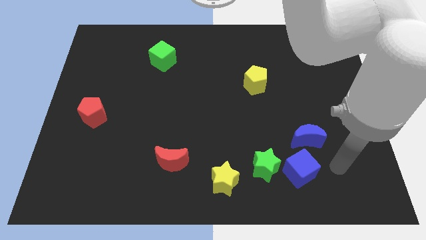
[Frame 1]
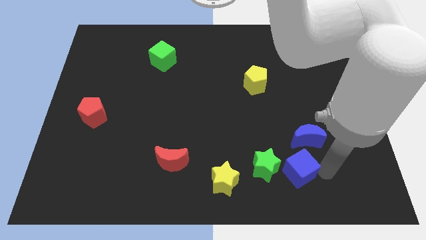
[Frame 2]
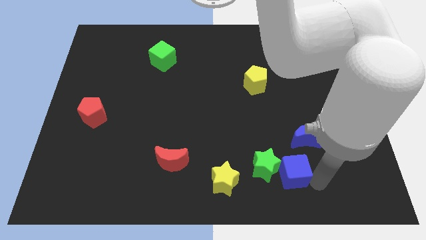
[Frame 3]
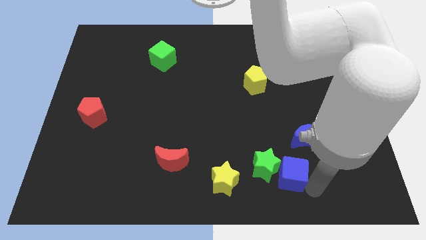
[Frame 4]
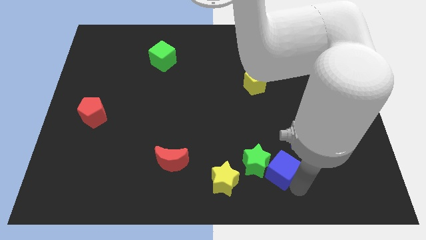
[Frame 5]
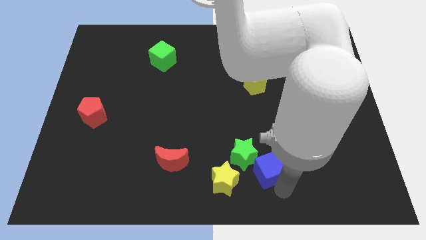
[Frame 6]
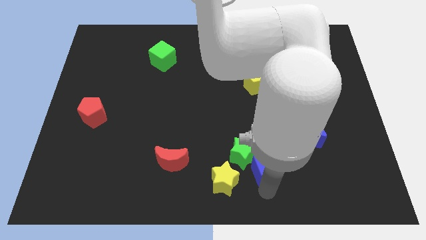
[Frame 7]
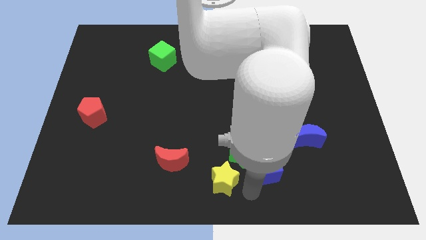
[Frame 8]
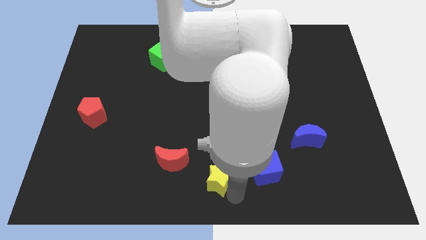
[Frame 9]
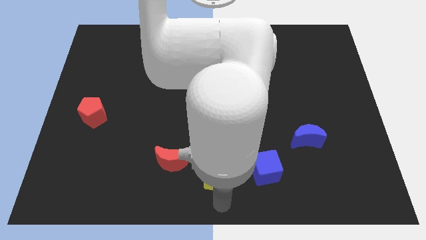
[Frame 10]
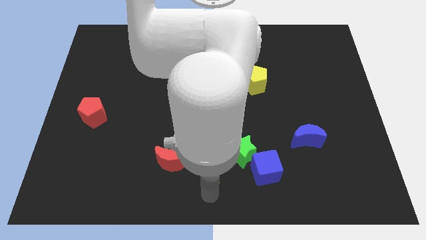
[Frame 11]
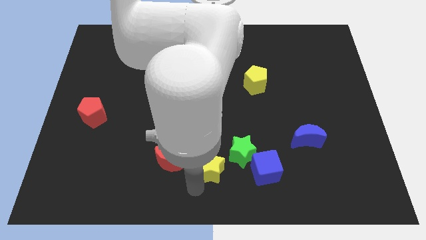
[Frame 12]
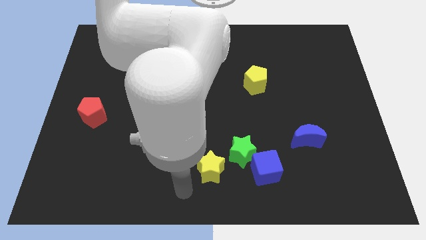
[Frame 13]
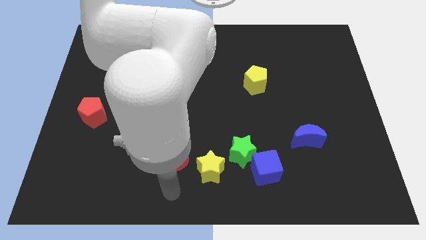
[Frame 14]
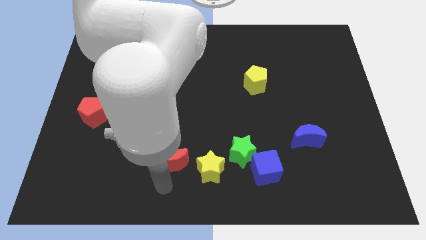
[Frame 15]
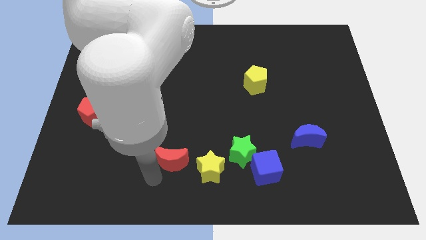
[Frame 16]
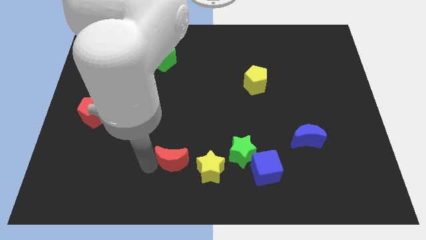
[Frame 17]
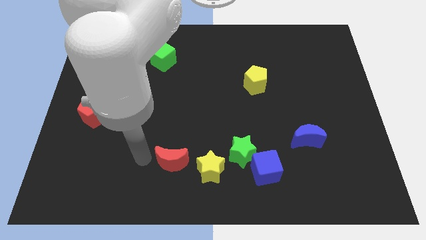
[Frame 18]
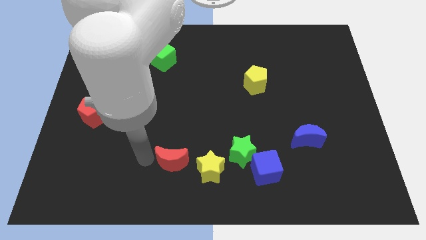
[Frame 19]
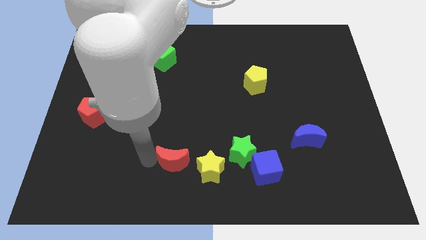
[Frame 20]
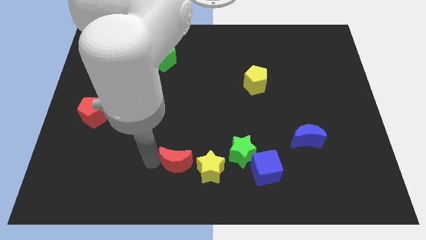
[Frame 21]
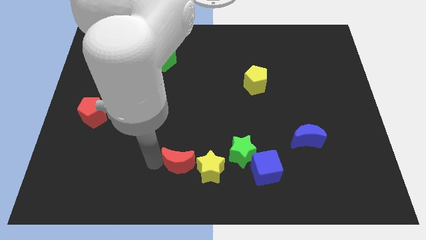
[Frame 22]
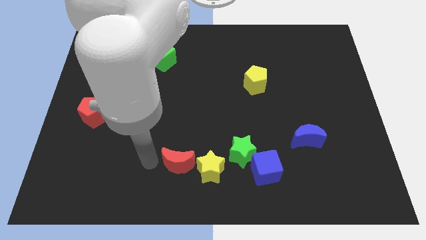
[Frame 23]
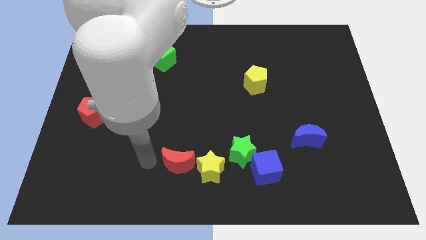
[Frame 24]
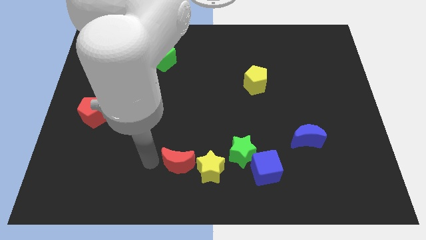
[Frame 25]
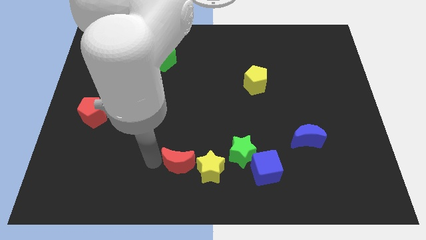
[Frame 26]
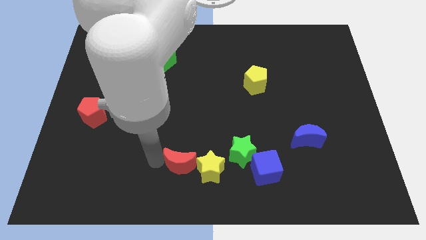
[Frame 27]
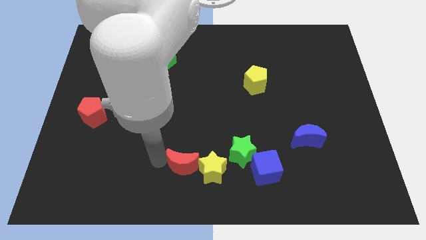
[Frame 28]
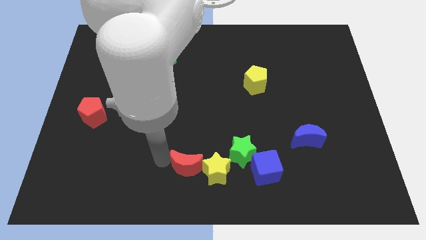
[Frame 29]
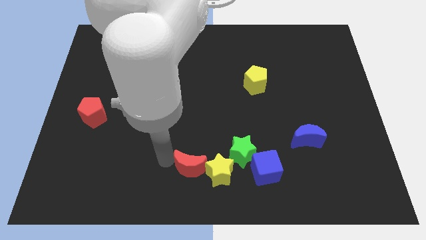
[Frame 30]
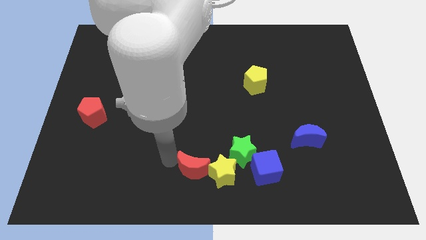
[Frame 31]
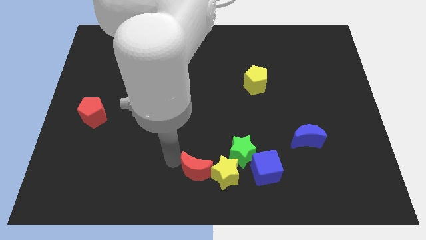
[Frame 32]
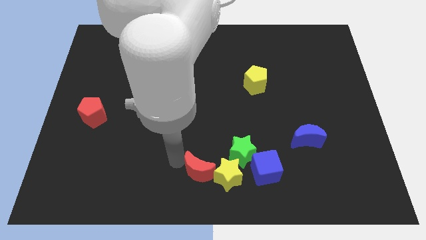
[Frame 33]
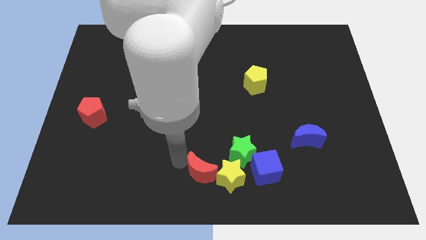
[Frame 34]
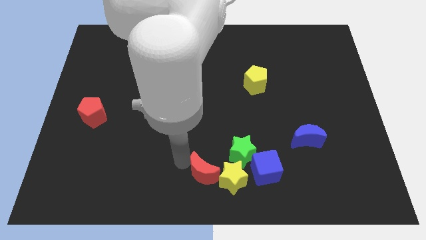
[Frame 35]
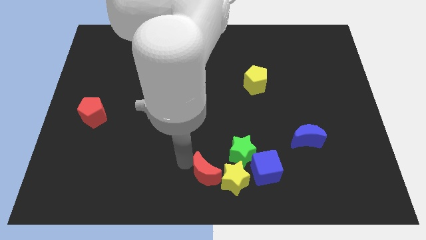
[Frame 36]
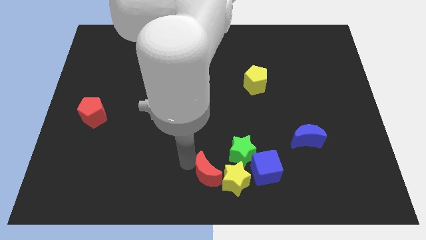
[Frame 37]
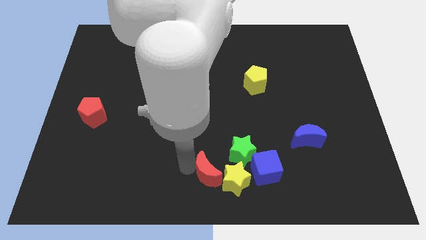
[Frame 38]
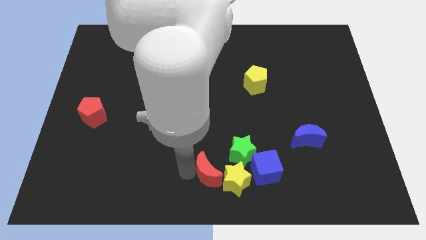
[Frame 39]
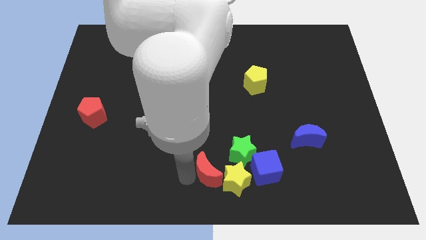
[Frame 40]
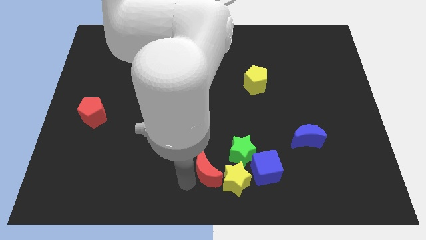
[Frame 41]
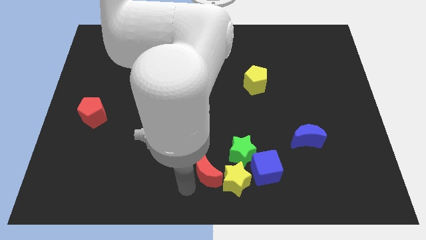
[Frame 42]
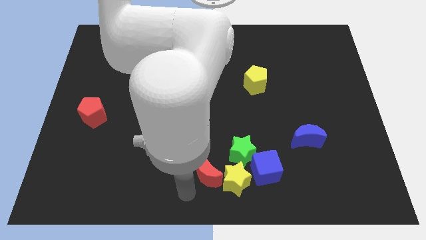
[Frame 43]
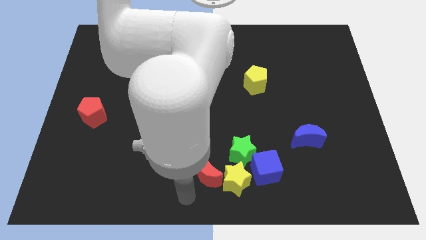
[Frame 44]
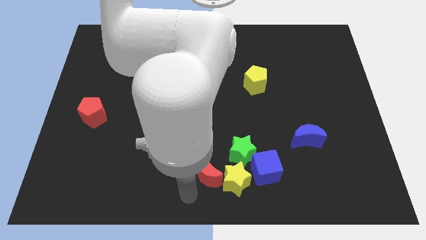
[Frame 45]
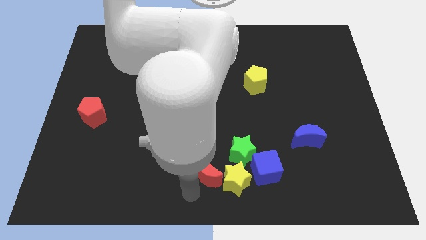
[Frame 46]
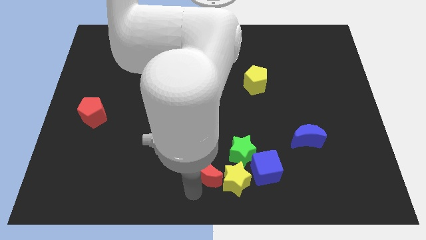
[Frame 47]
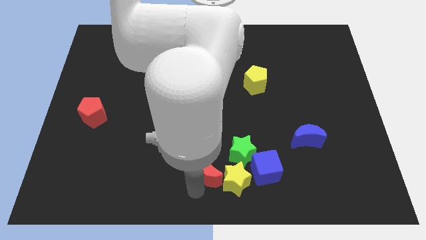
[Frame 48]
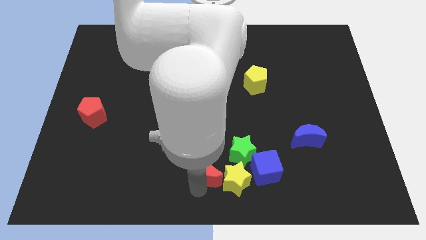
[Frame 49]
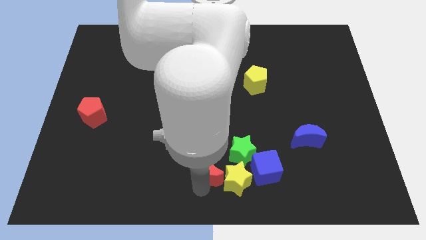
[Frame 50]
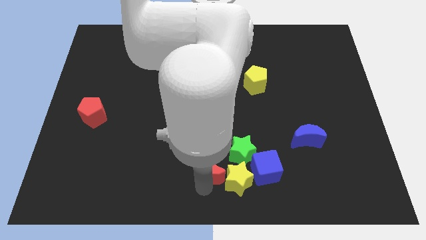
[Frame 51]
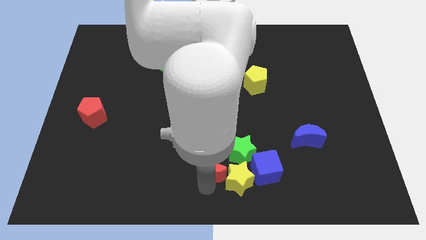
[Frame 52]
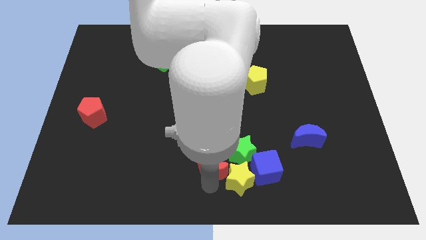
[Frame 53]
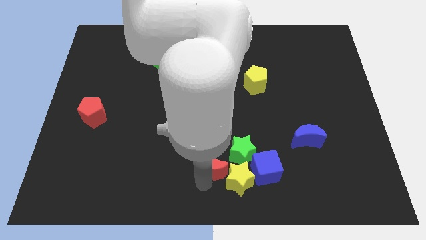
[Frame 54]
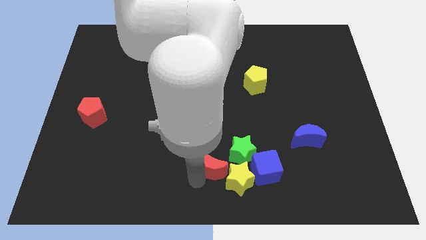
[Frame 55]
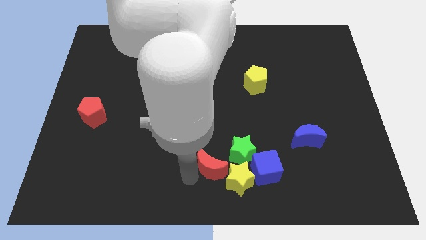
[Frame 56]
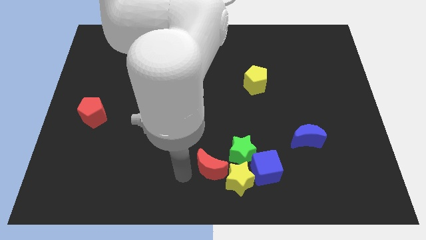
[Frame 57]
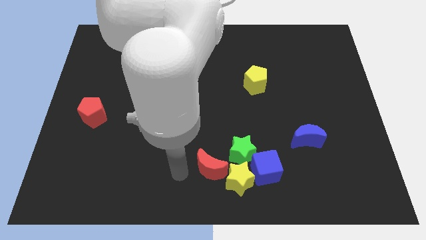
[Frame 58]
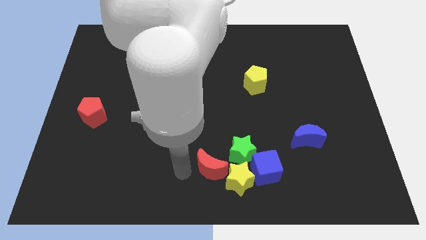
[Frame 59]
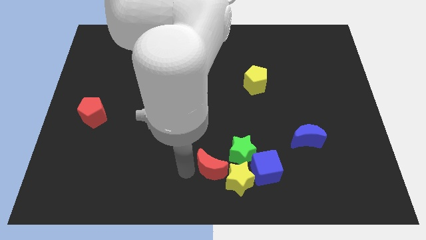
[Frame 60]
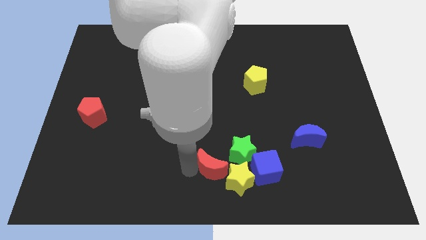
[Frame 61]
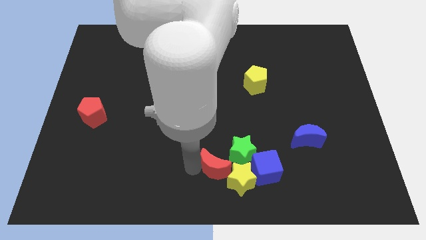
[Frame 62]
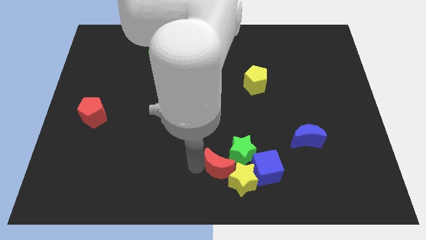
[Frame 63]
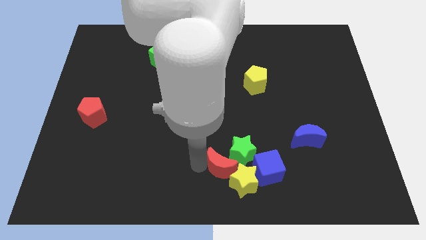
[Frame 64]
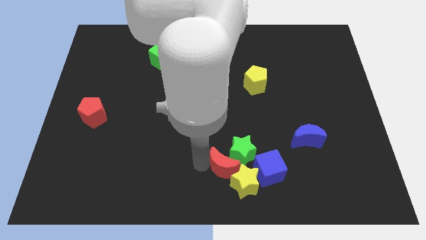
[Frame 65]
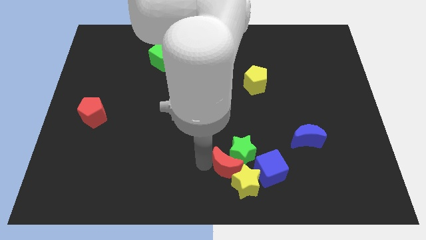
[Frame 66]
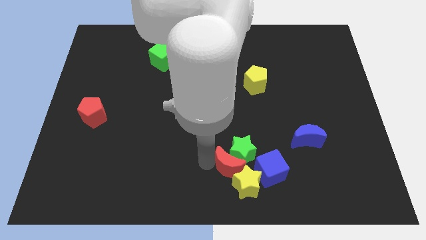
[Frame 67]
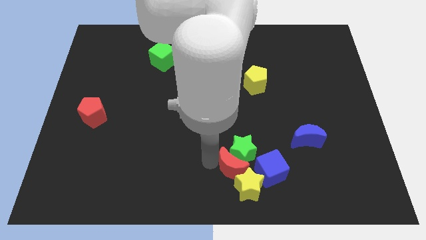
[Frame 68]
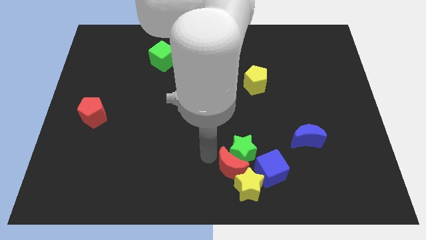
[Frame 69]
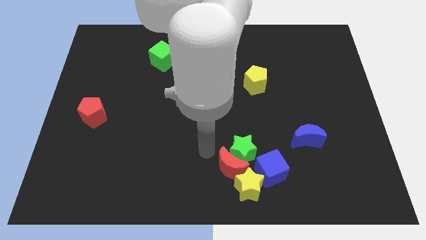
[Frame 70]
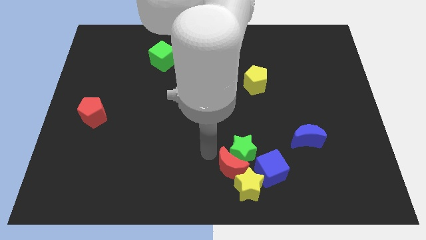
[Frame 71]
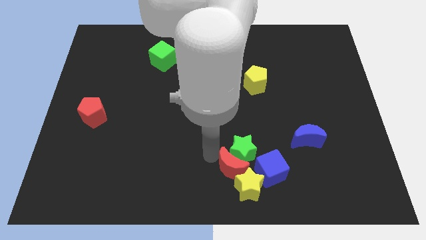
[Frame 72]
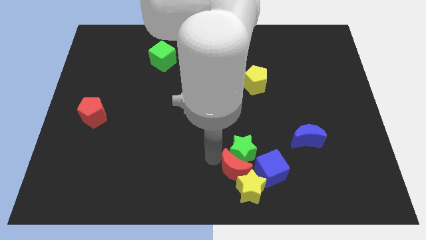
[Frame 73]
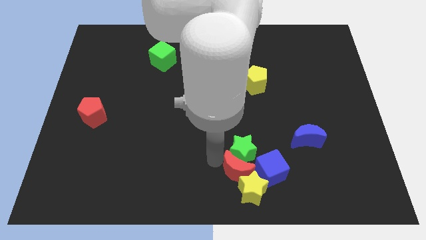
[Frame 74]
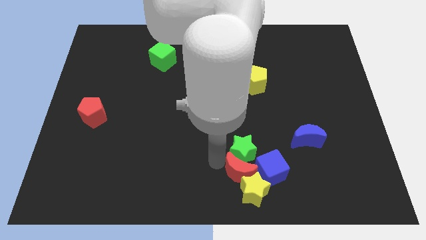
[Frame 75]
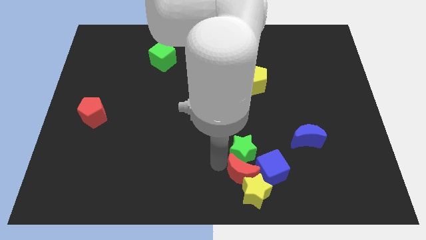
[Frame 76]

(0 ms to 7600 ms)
slide the red moon to the blue cube
